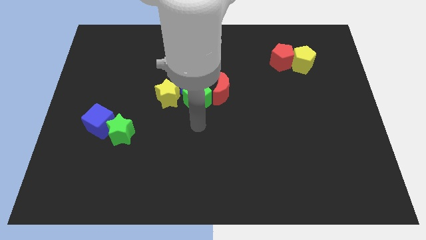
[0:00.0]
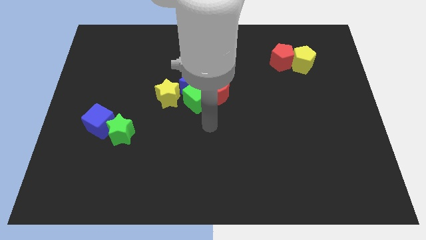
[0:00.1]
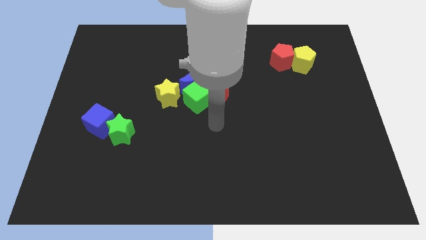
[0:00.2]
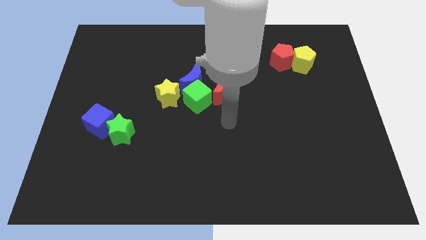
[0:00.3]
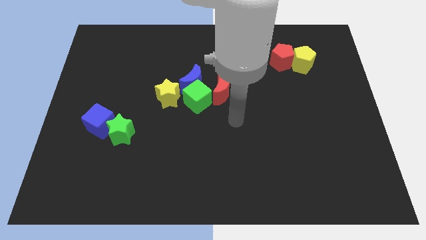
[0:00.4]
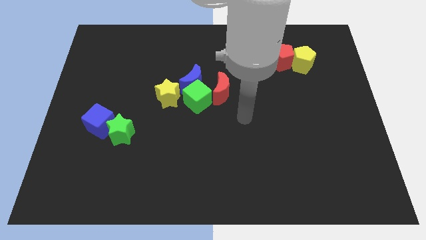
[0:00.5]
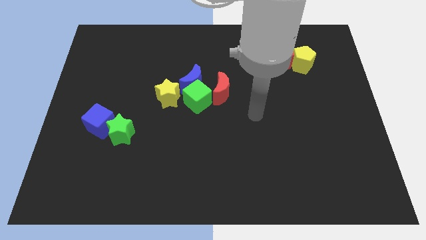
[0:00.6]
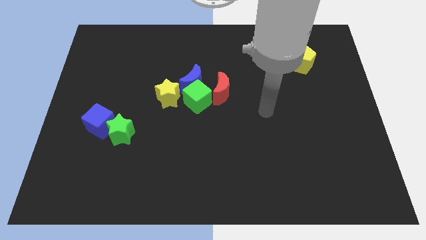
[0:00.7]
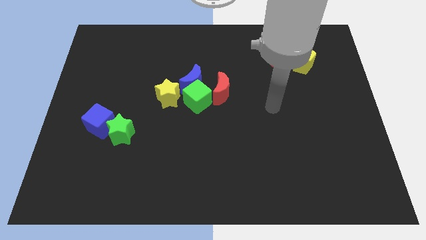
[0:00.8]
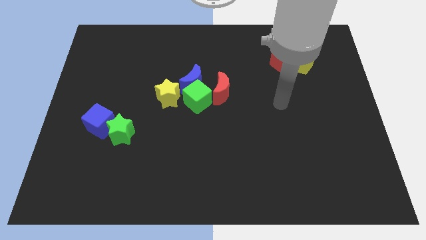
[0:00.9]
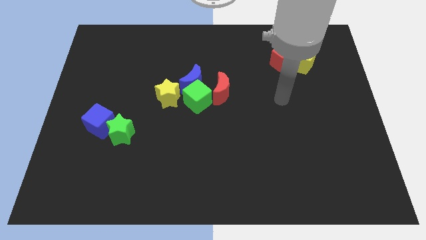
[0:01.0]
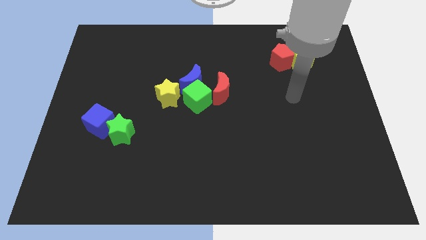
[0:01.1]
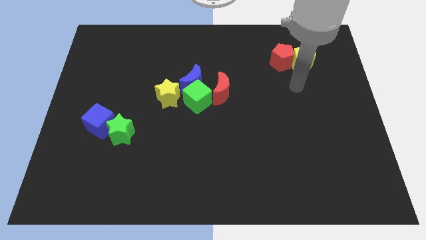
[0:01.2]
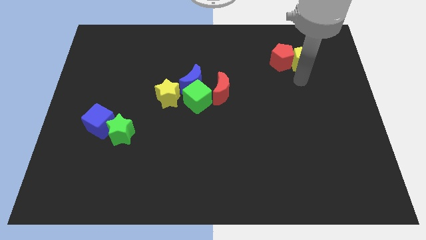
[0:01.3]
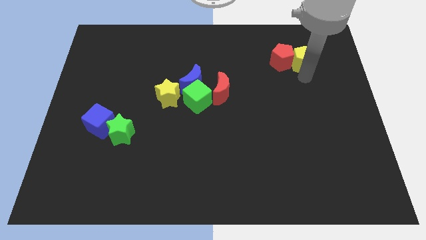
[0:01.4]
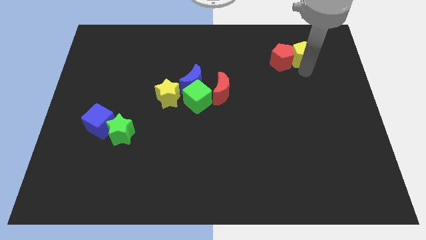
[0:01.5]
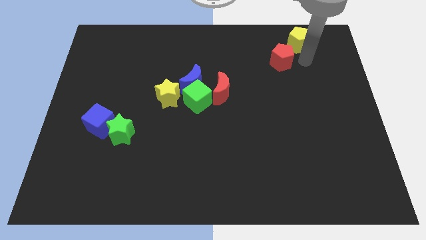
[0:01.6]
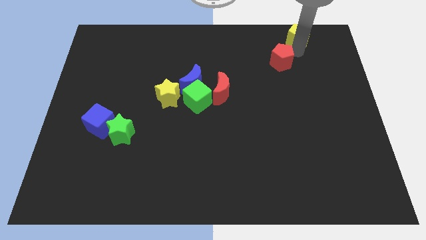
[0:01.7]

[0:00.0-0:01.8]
pull the red pentagon apart from the yellow pentagon

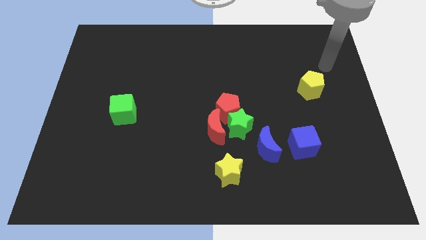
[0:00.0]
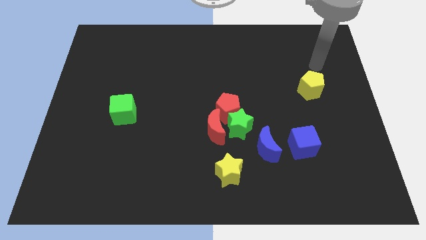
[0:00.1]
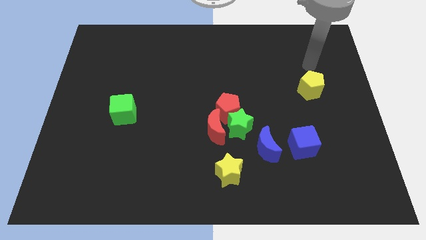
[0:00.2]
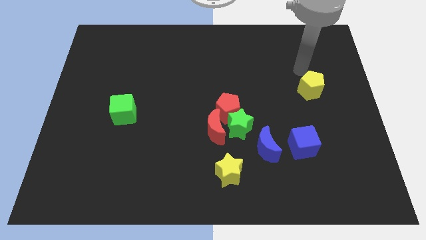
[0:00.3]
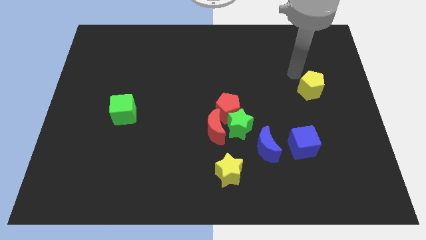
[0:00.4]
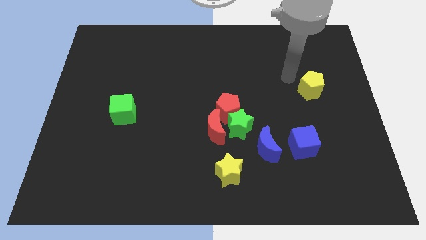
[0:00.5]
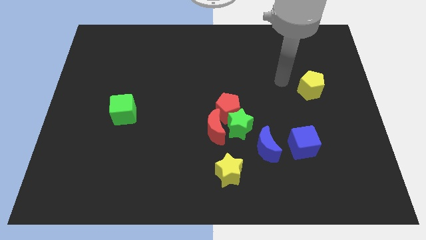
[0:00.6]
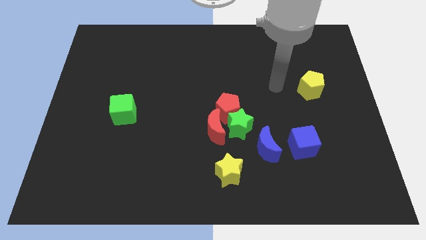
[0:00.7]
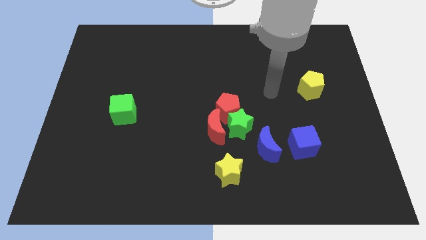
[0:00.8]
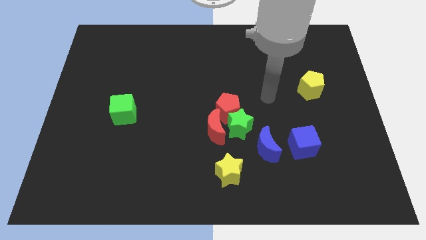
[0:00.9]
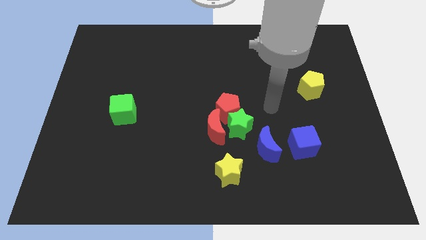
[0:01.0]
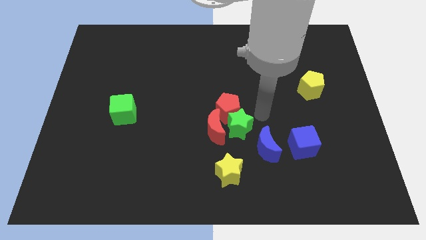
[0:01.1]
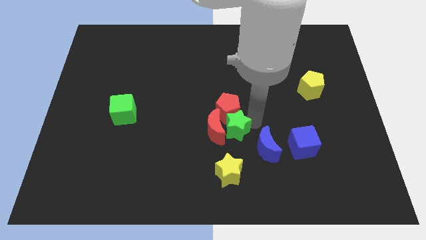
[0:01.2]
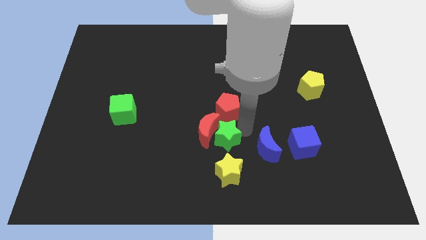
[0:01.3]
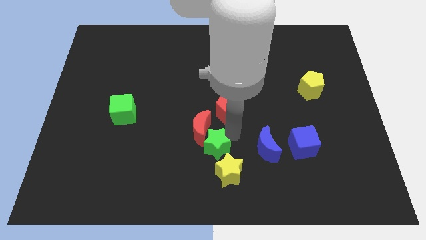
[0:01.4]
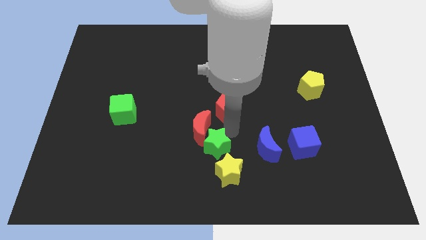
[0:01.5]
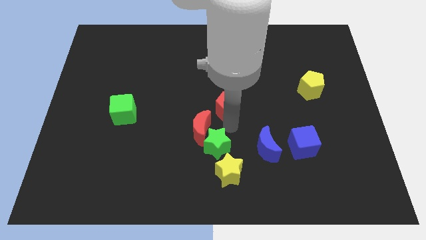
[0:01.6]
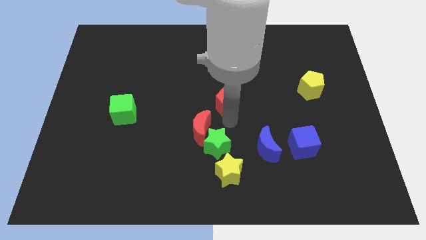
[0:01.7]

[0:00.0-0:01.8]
pull the red pentagon apart from the green star and red moon

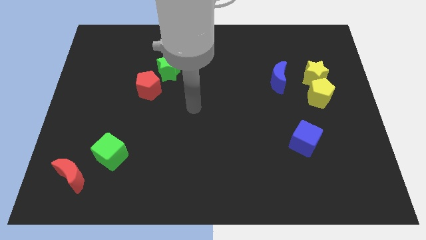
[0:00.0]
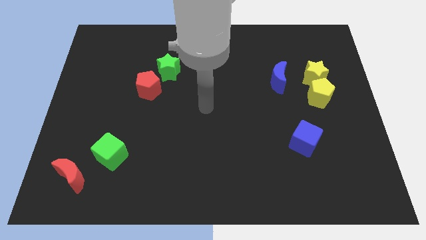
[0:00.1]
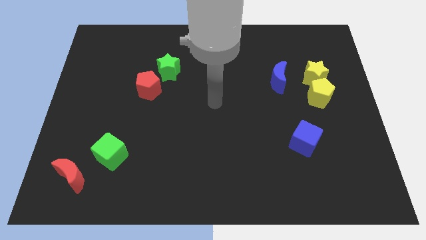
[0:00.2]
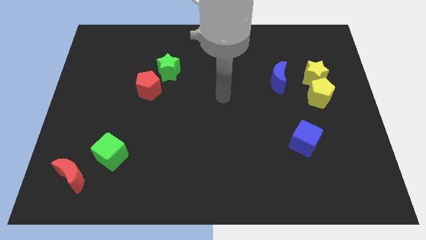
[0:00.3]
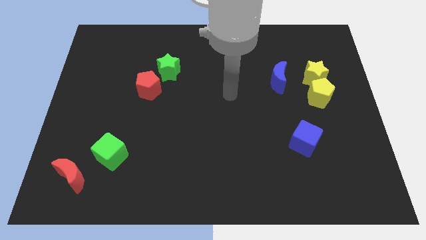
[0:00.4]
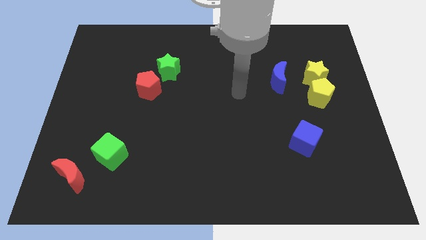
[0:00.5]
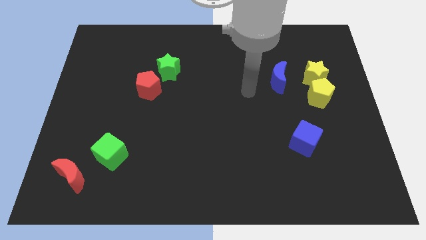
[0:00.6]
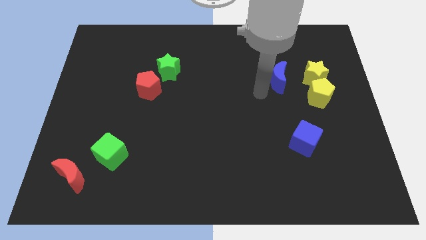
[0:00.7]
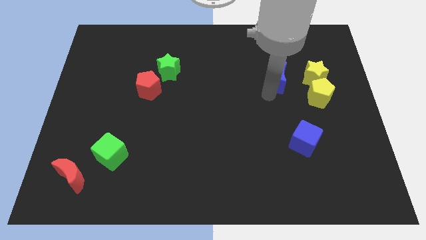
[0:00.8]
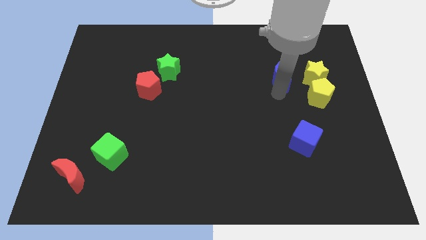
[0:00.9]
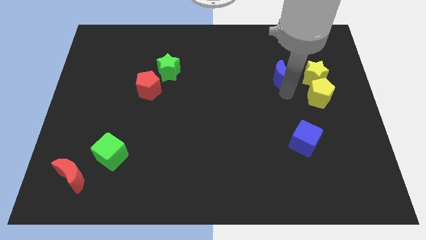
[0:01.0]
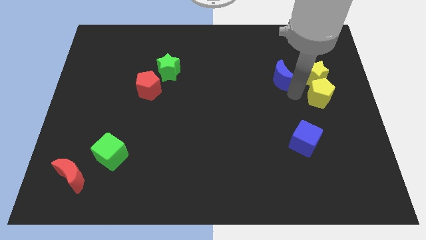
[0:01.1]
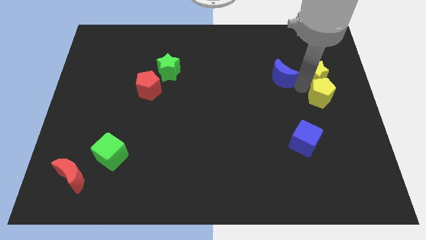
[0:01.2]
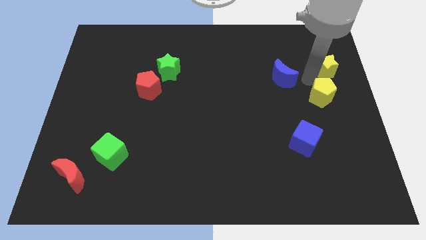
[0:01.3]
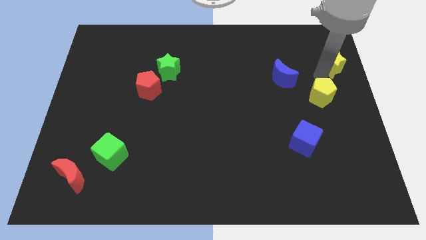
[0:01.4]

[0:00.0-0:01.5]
pull the yellow pentagon apart from the yellow star

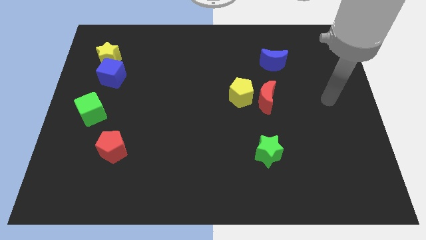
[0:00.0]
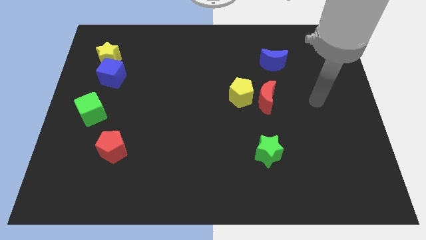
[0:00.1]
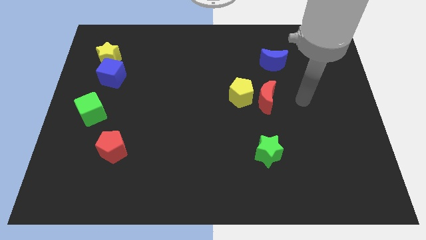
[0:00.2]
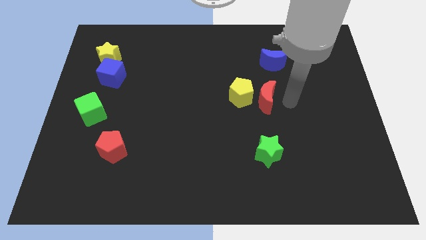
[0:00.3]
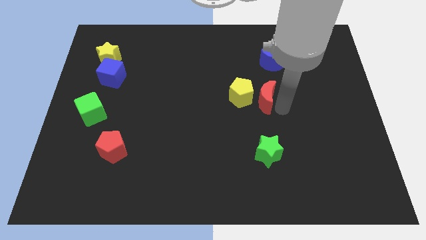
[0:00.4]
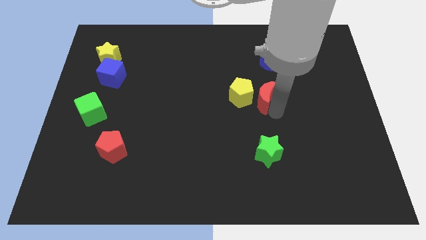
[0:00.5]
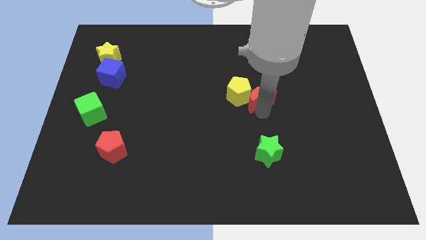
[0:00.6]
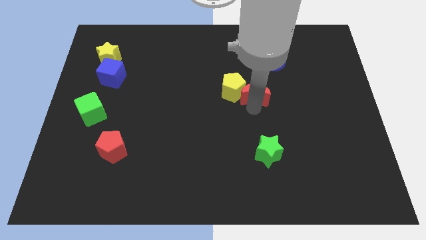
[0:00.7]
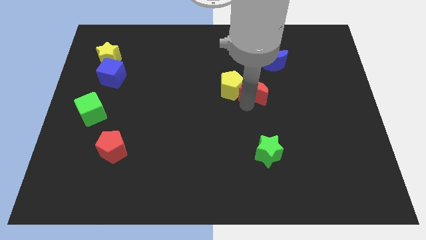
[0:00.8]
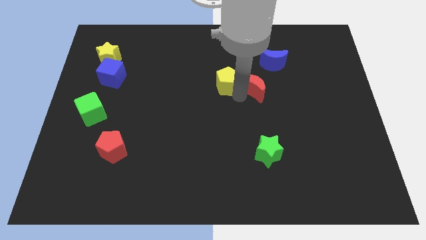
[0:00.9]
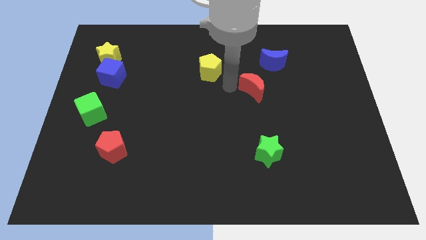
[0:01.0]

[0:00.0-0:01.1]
separate the red moon from the yellow pentagon

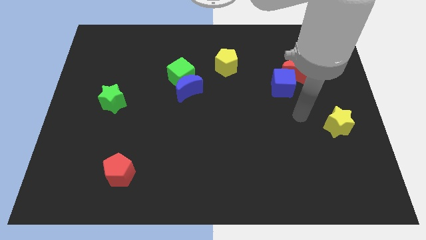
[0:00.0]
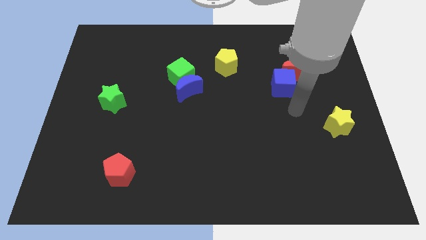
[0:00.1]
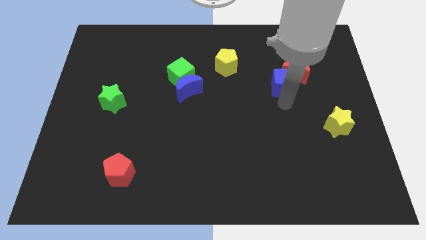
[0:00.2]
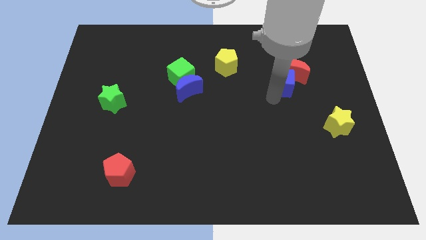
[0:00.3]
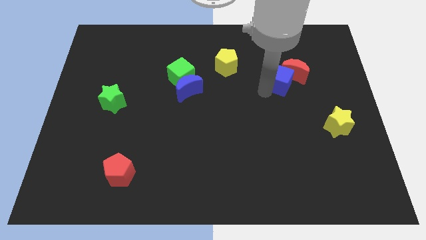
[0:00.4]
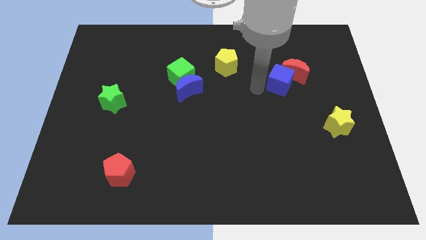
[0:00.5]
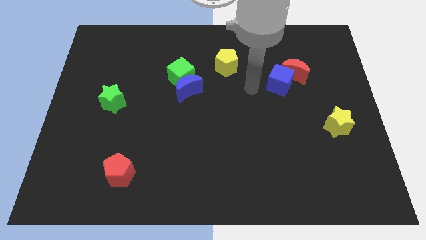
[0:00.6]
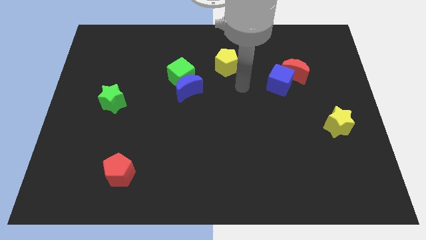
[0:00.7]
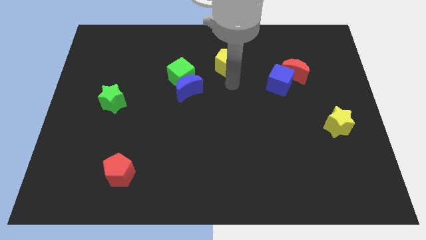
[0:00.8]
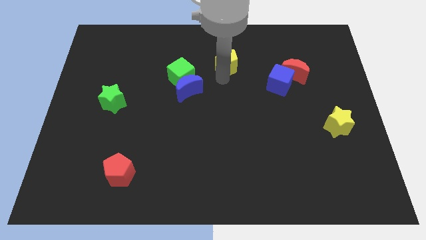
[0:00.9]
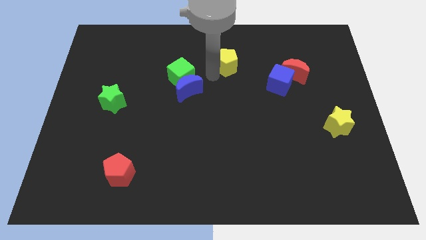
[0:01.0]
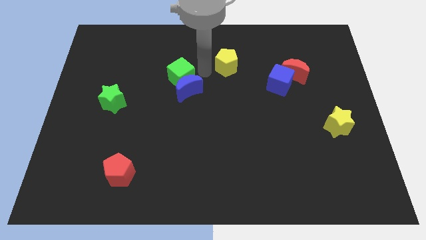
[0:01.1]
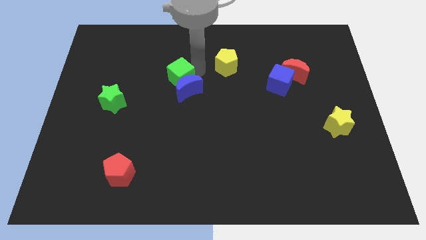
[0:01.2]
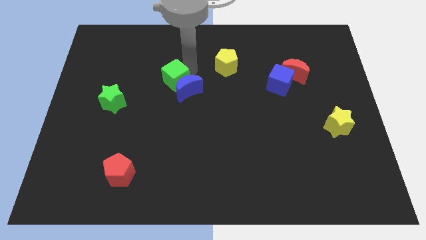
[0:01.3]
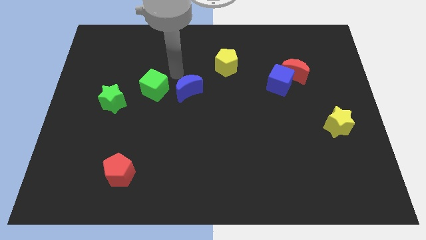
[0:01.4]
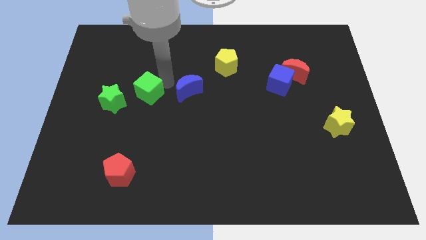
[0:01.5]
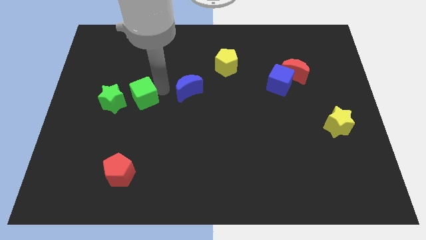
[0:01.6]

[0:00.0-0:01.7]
pull the blue moon apart from the green cube

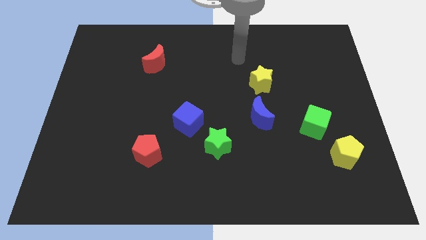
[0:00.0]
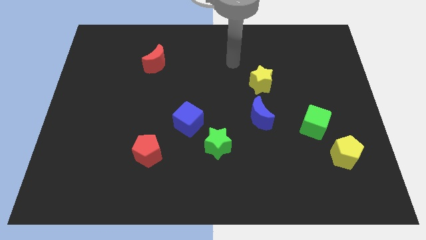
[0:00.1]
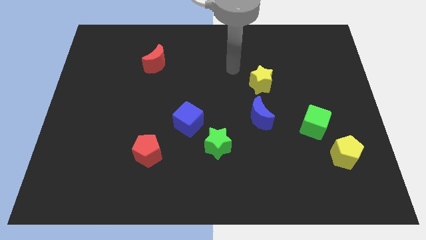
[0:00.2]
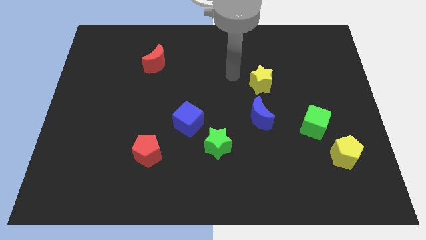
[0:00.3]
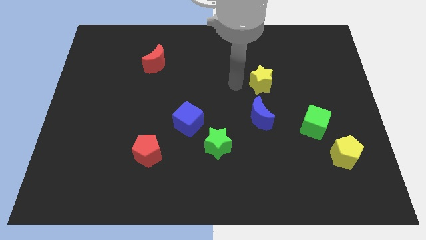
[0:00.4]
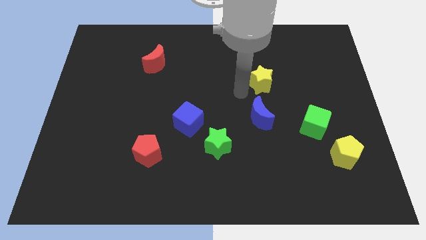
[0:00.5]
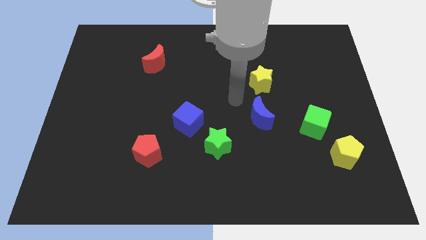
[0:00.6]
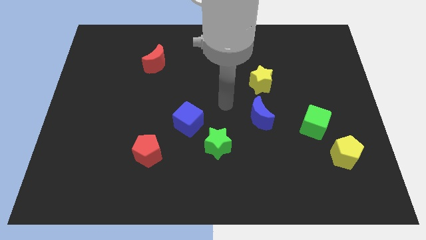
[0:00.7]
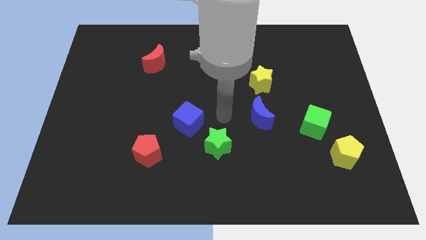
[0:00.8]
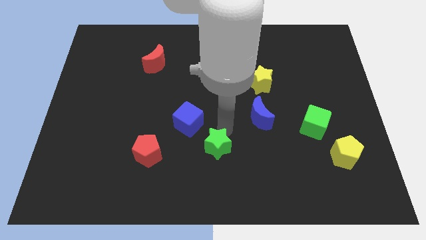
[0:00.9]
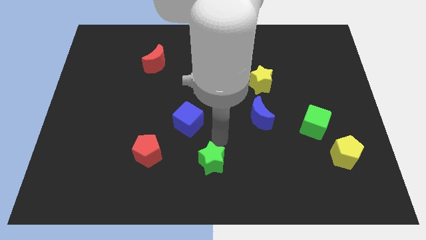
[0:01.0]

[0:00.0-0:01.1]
pull the blue cube apart from the green star

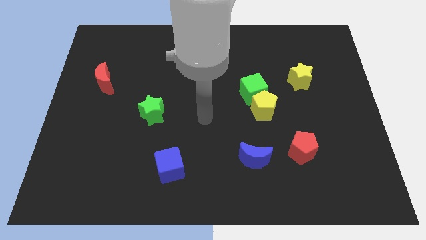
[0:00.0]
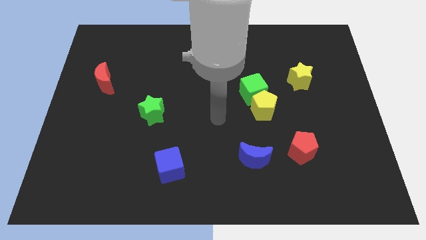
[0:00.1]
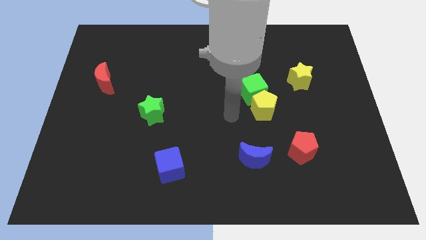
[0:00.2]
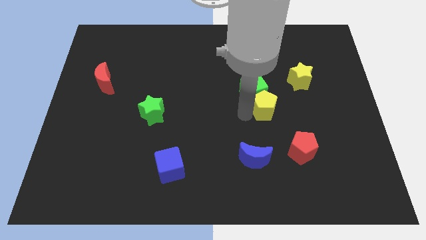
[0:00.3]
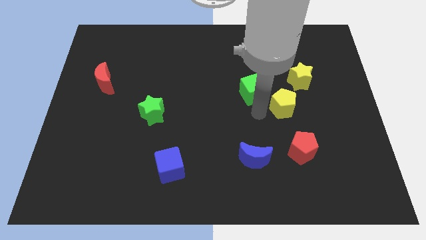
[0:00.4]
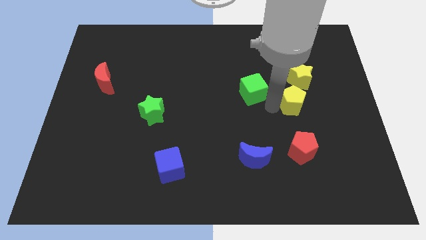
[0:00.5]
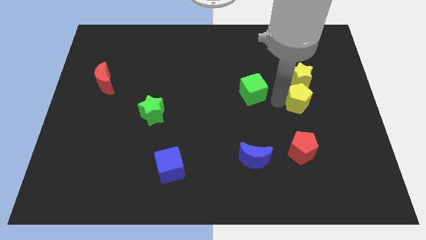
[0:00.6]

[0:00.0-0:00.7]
pull the green cube apart from the yellow pentagon
